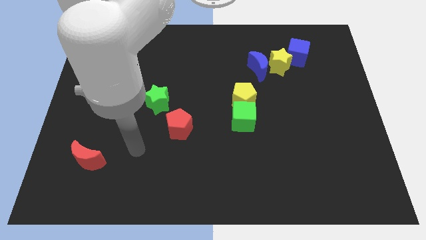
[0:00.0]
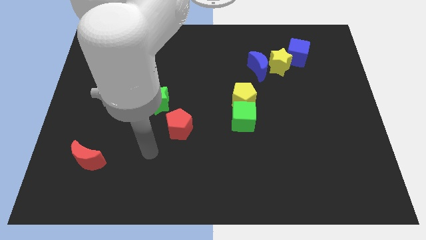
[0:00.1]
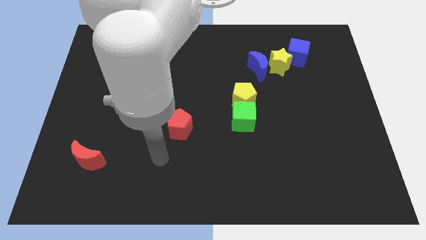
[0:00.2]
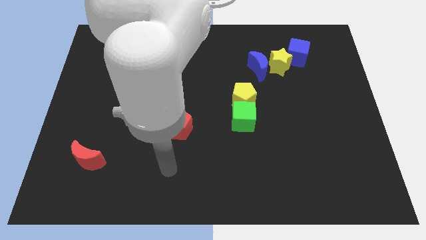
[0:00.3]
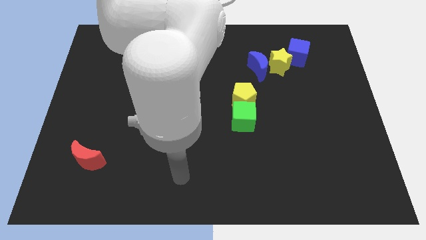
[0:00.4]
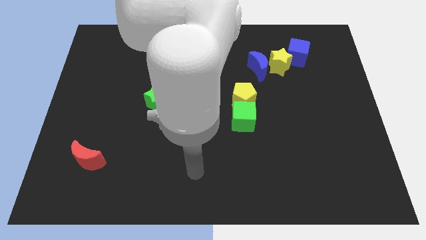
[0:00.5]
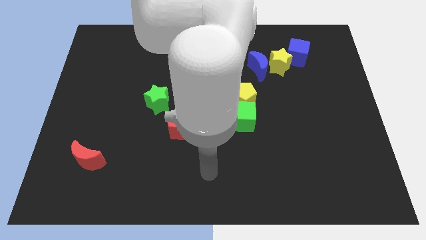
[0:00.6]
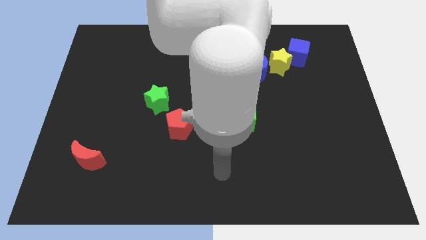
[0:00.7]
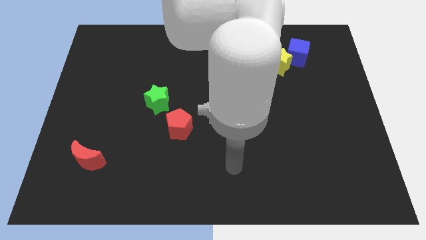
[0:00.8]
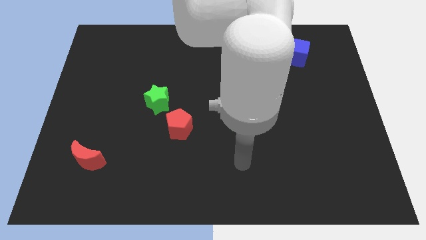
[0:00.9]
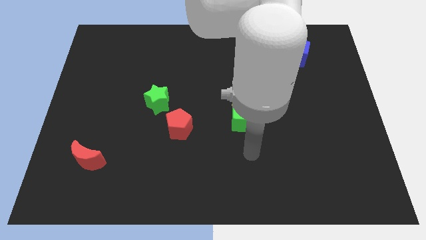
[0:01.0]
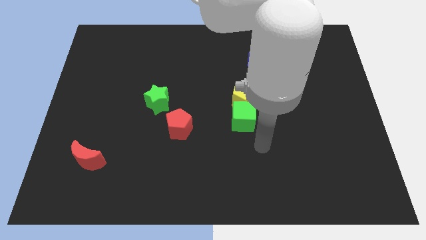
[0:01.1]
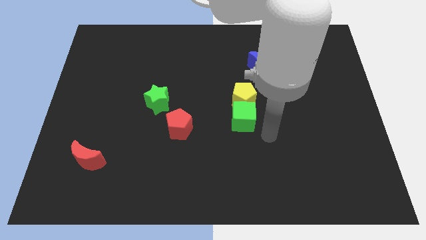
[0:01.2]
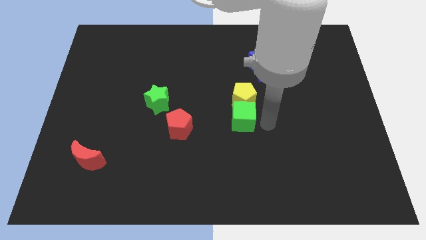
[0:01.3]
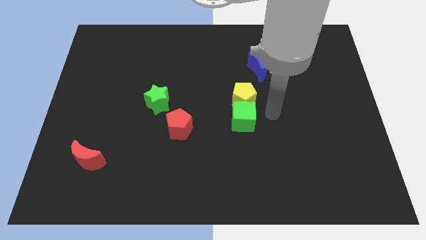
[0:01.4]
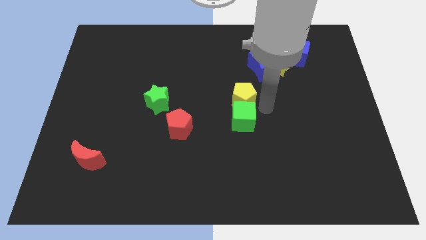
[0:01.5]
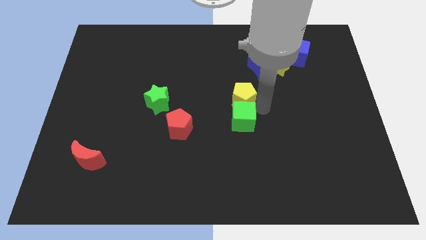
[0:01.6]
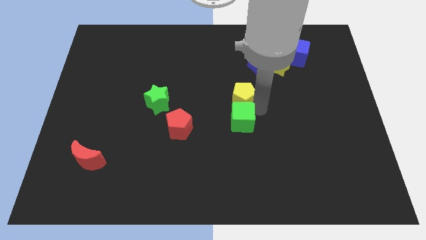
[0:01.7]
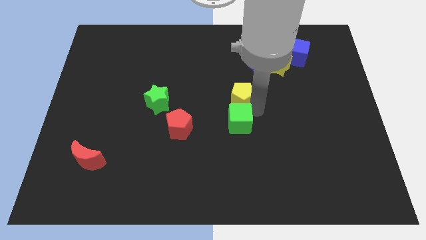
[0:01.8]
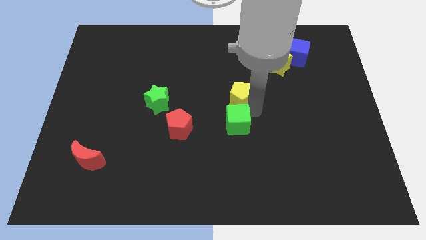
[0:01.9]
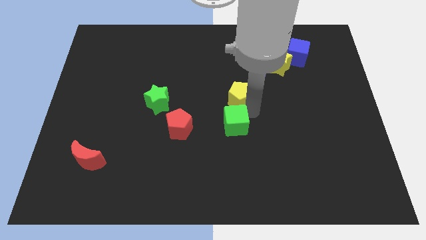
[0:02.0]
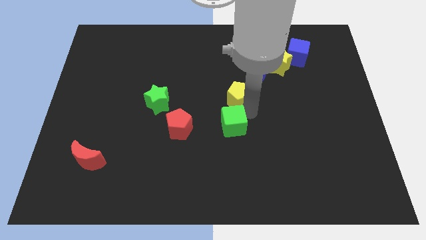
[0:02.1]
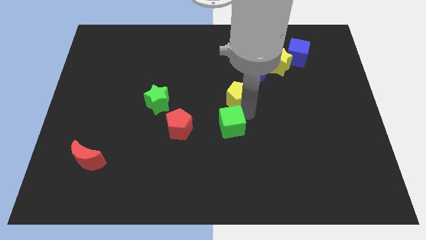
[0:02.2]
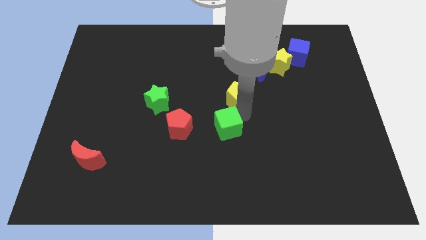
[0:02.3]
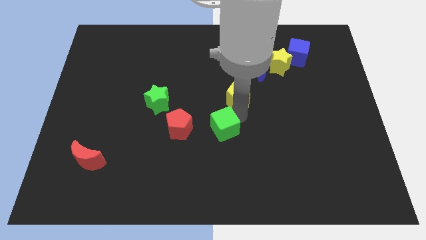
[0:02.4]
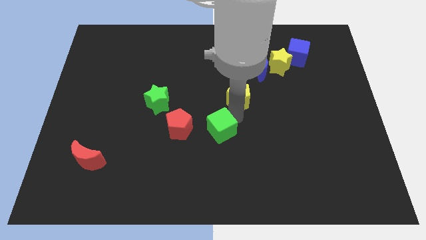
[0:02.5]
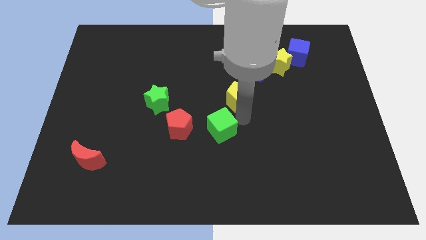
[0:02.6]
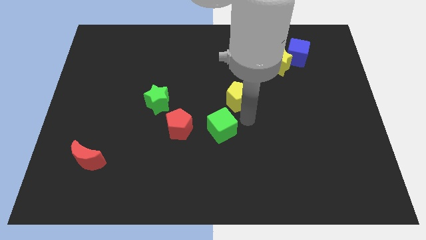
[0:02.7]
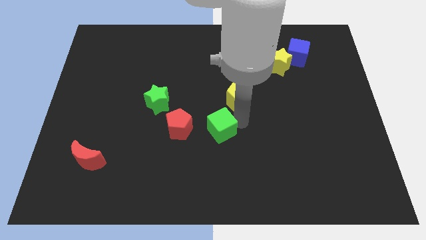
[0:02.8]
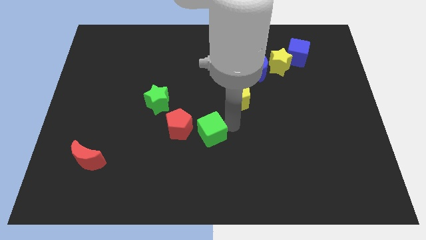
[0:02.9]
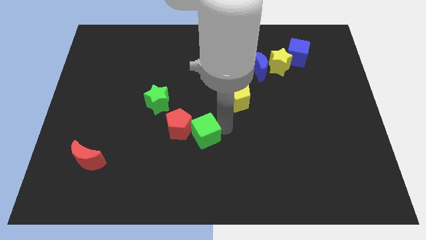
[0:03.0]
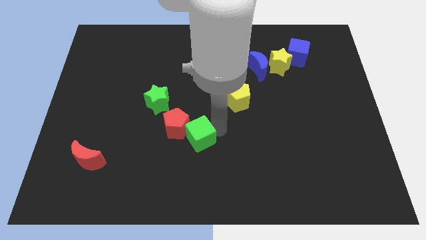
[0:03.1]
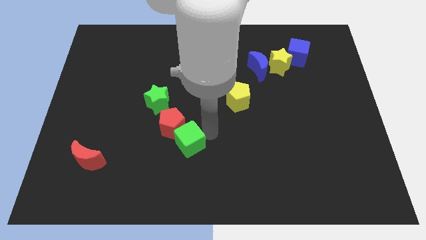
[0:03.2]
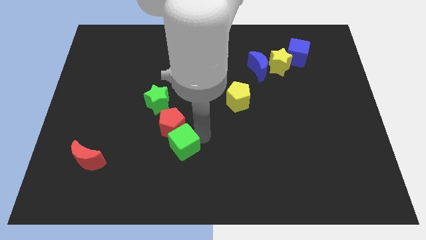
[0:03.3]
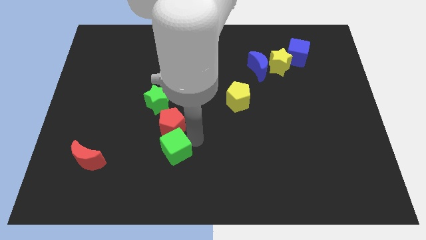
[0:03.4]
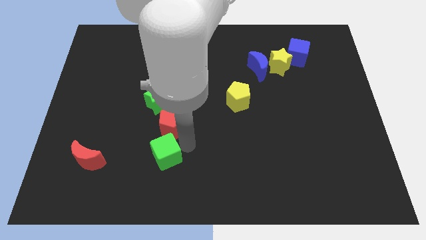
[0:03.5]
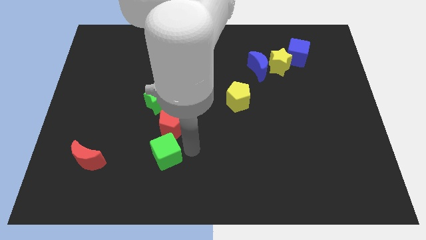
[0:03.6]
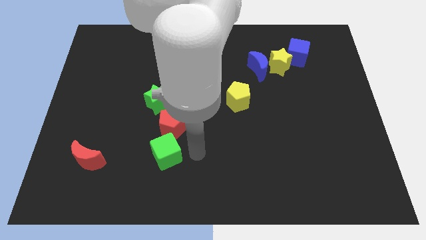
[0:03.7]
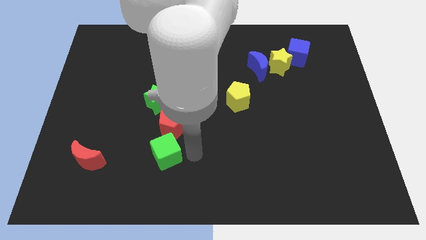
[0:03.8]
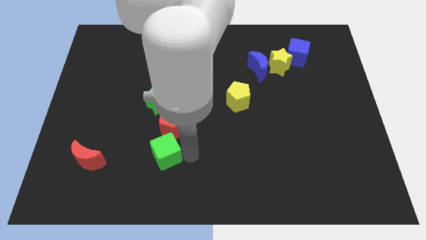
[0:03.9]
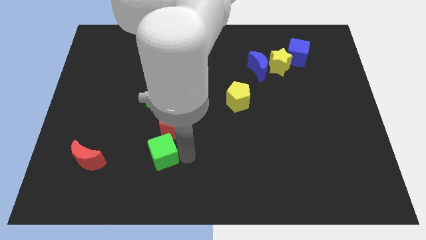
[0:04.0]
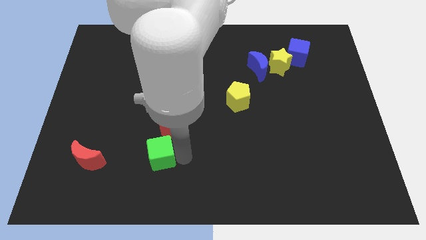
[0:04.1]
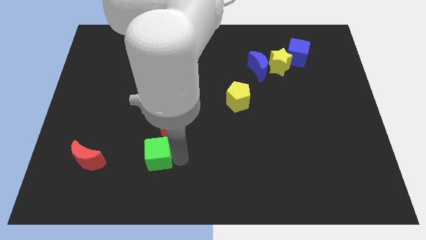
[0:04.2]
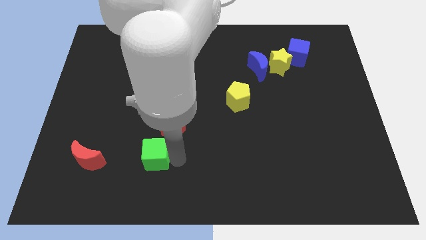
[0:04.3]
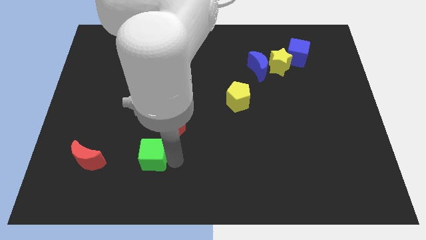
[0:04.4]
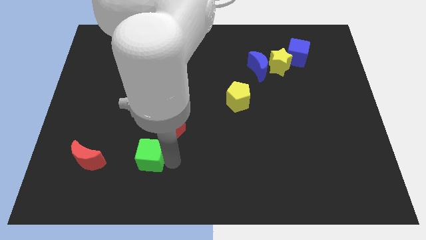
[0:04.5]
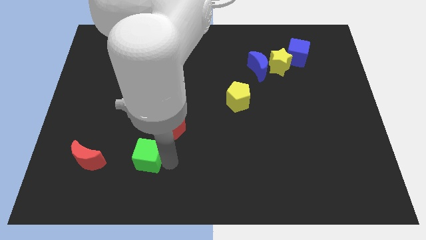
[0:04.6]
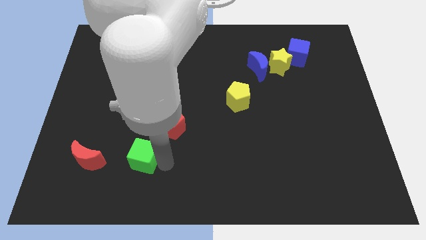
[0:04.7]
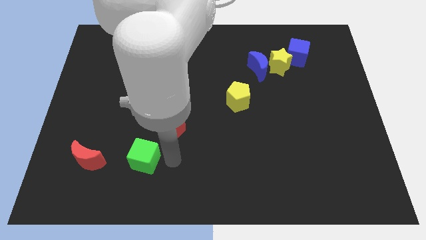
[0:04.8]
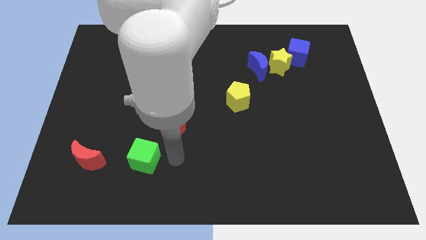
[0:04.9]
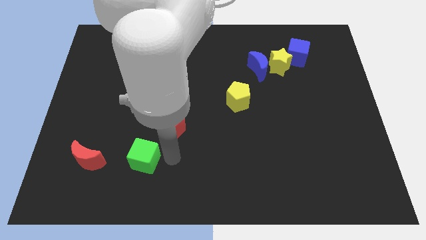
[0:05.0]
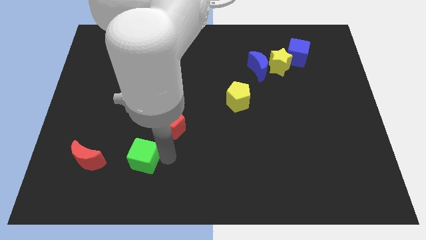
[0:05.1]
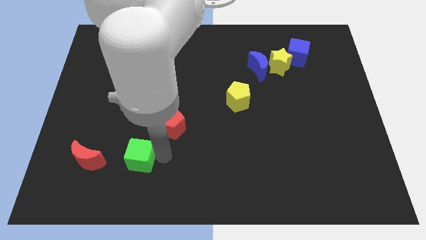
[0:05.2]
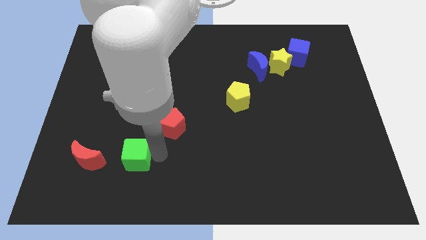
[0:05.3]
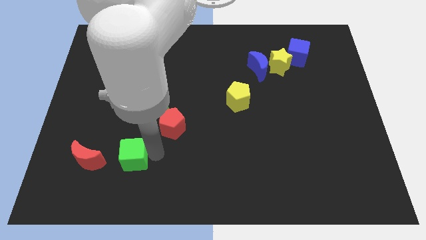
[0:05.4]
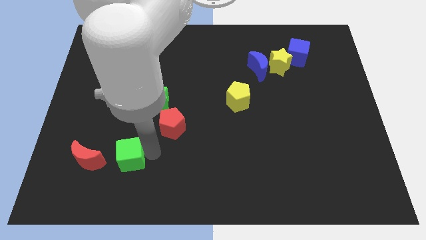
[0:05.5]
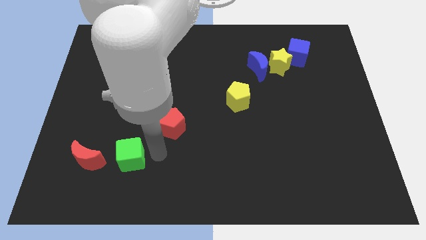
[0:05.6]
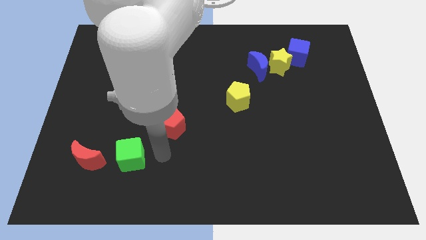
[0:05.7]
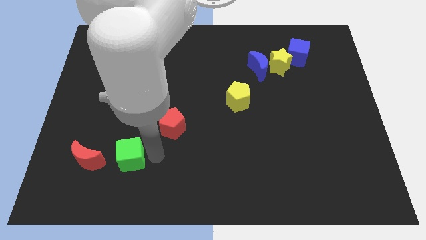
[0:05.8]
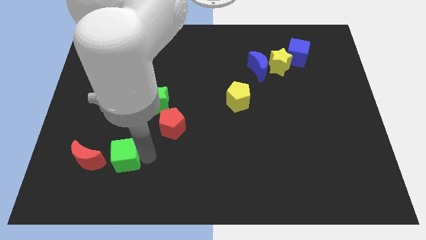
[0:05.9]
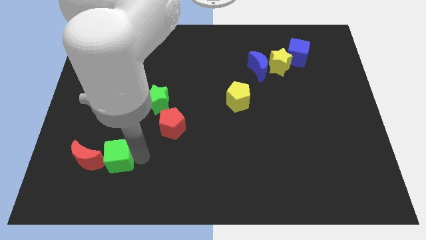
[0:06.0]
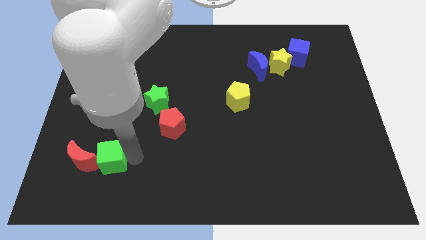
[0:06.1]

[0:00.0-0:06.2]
slide the green cube next to the red moon

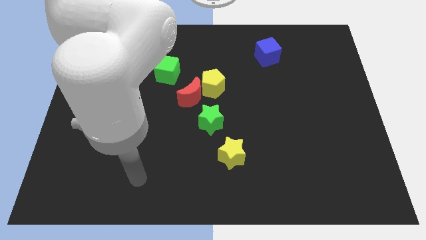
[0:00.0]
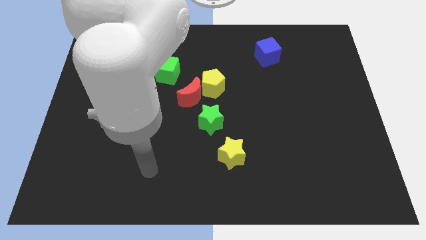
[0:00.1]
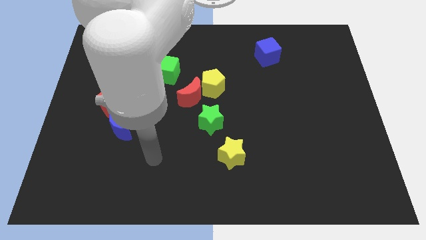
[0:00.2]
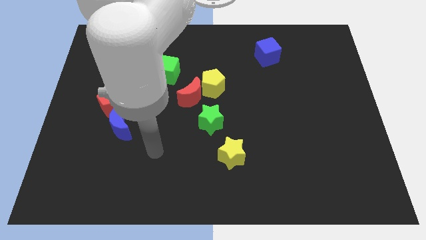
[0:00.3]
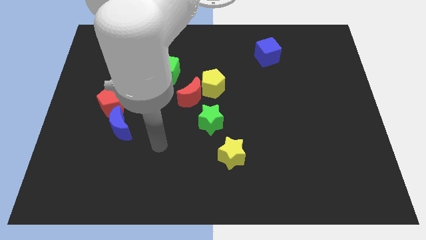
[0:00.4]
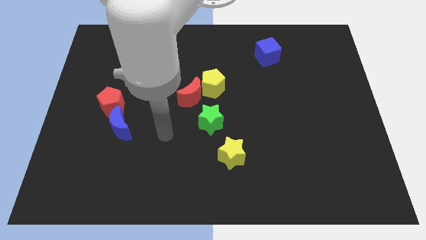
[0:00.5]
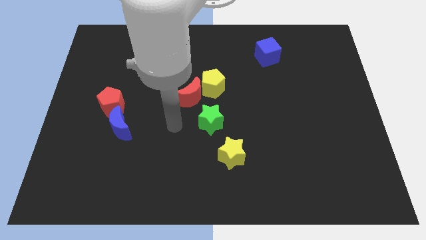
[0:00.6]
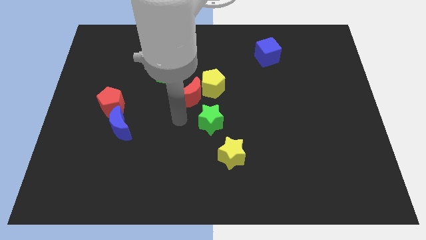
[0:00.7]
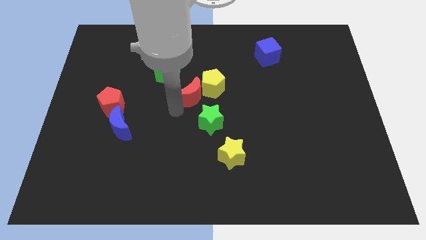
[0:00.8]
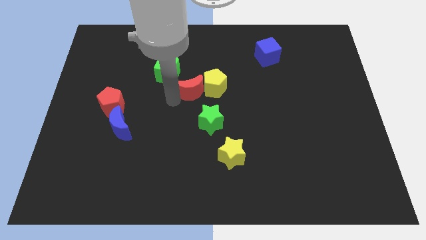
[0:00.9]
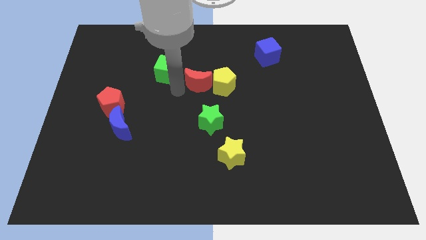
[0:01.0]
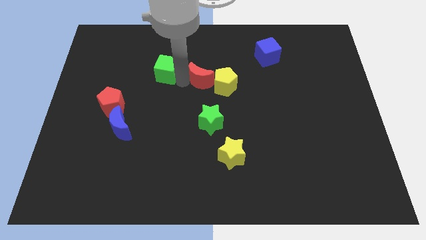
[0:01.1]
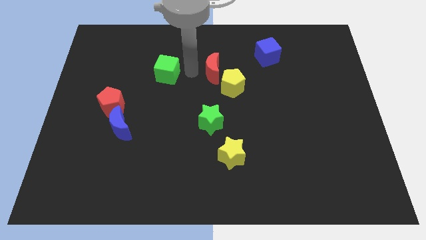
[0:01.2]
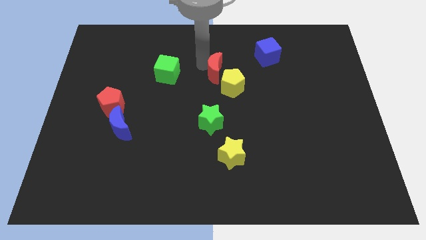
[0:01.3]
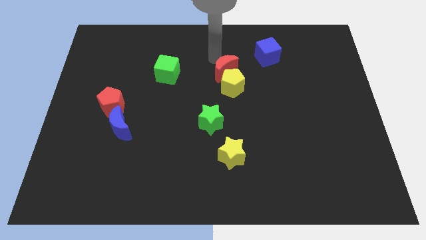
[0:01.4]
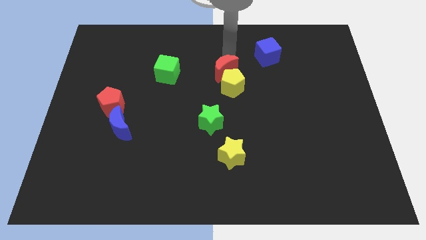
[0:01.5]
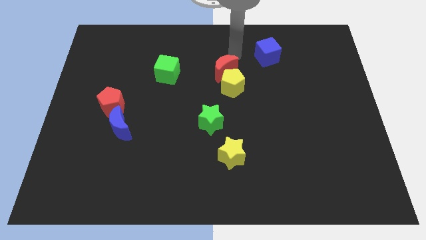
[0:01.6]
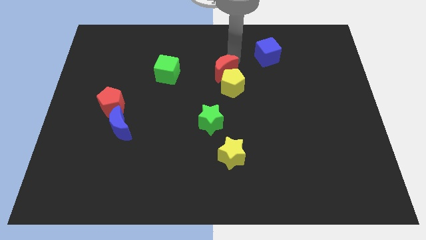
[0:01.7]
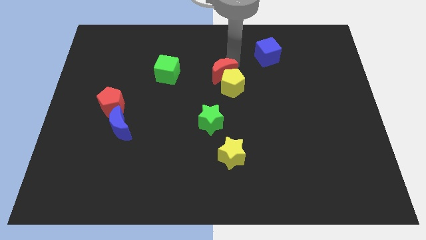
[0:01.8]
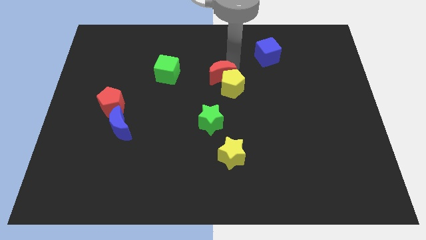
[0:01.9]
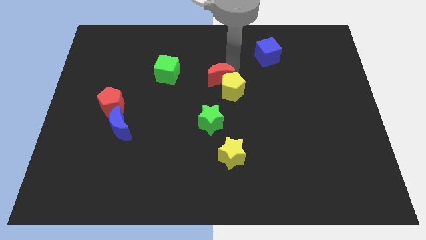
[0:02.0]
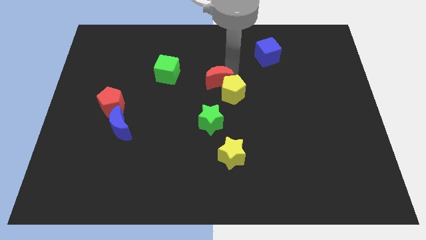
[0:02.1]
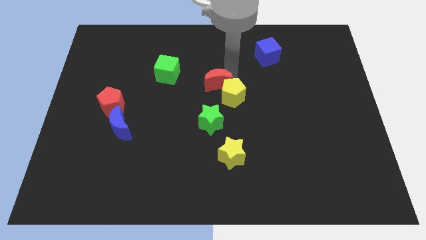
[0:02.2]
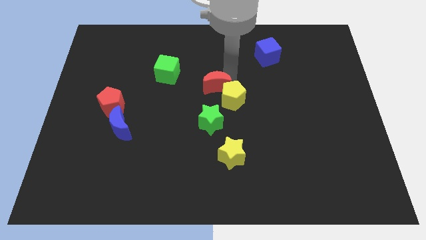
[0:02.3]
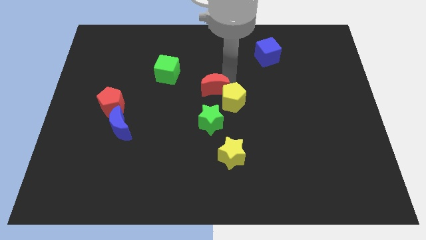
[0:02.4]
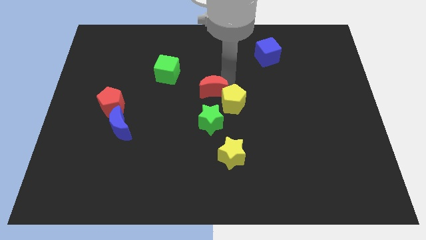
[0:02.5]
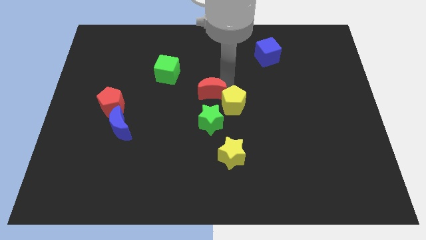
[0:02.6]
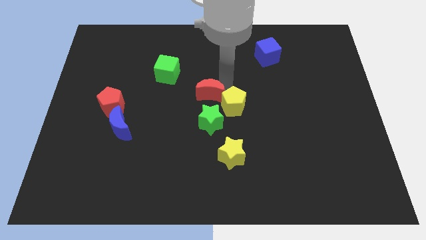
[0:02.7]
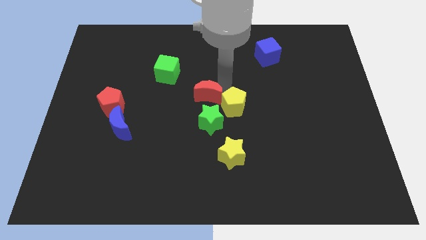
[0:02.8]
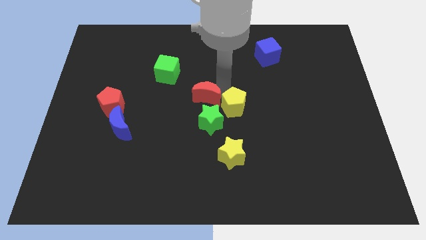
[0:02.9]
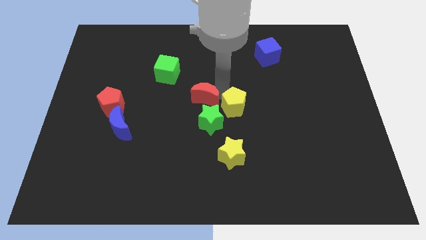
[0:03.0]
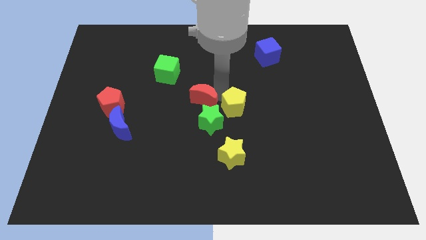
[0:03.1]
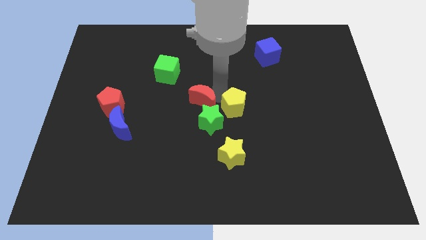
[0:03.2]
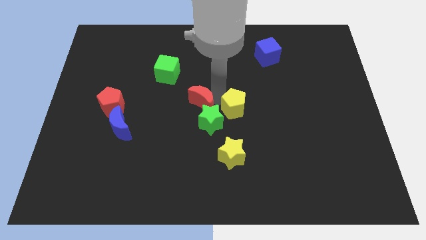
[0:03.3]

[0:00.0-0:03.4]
slide the red moon next to the green star
